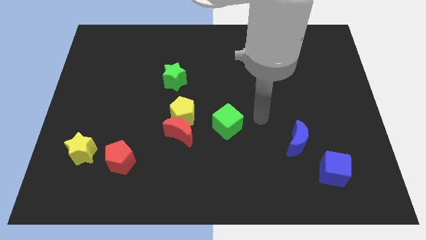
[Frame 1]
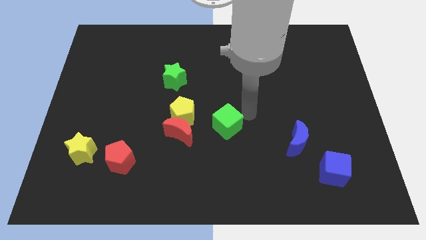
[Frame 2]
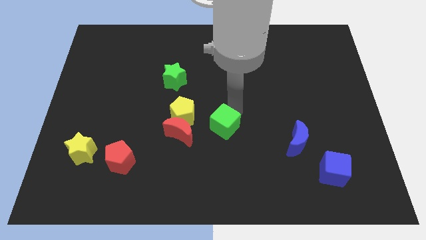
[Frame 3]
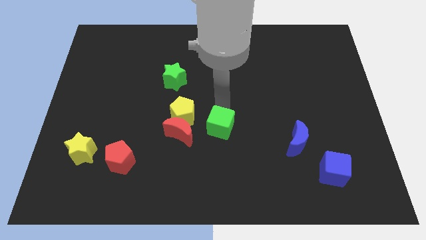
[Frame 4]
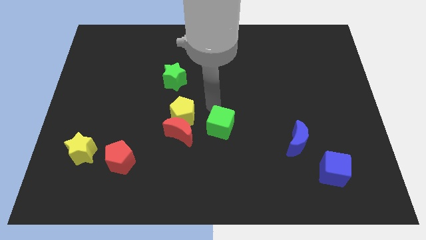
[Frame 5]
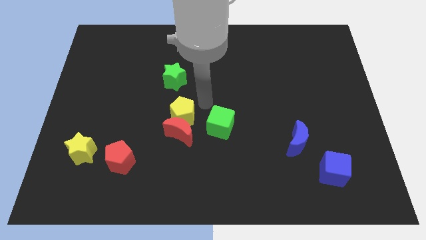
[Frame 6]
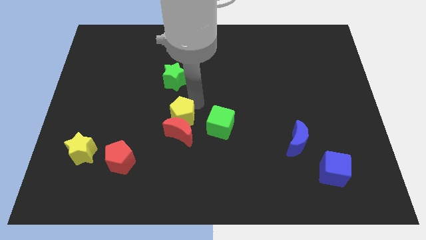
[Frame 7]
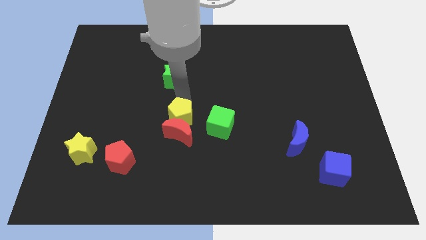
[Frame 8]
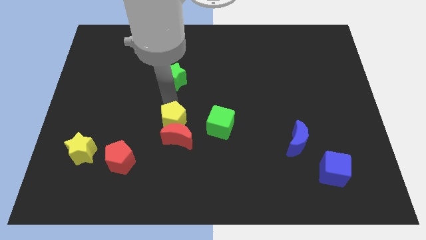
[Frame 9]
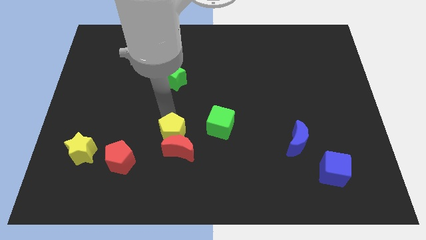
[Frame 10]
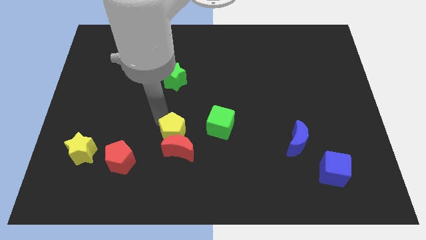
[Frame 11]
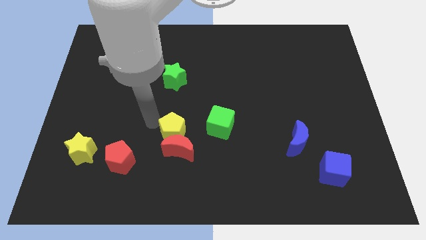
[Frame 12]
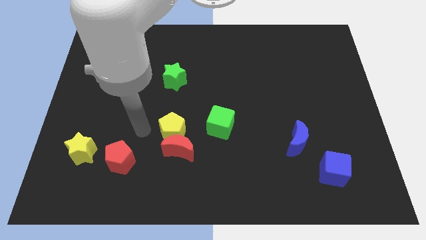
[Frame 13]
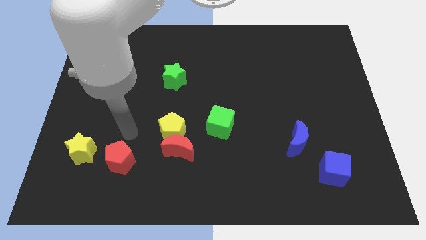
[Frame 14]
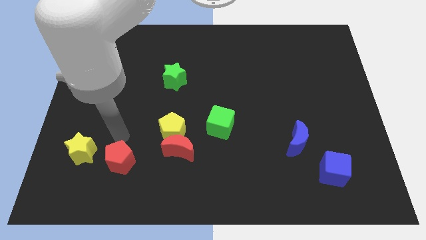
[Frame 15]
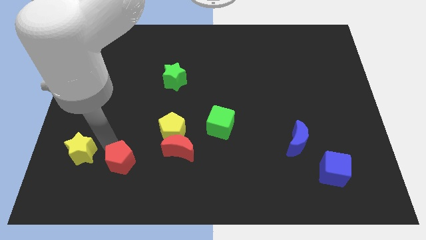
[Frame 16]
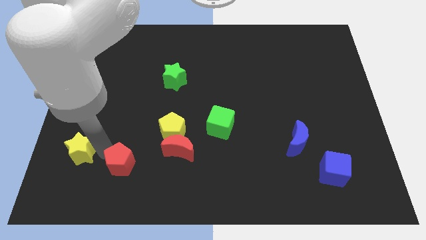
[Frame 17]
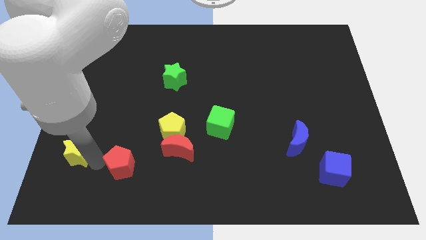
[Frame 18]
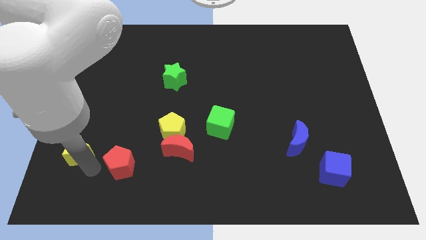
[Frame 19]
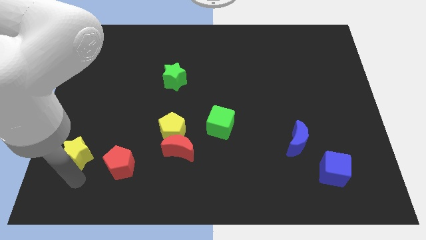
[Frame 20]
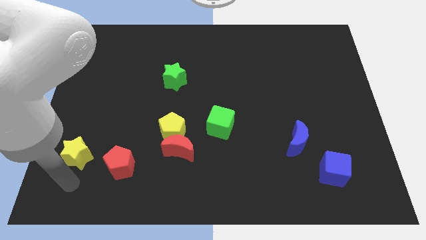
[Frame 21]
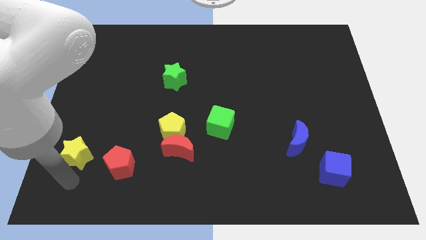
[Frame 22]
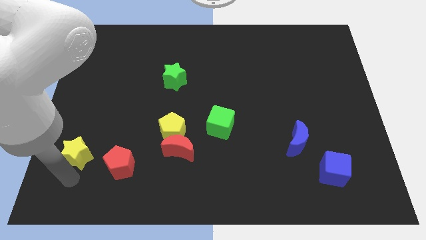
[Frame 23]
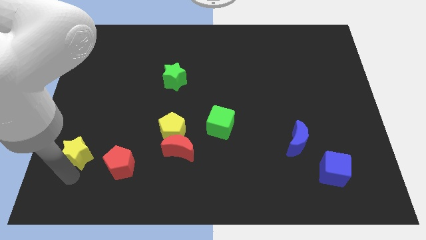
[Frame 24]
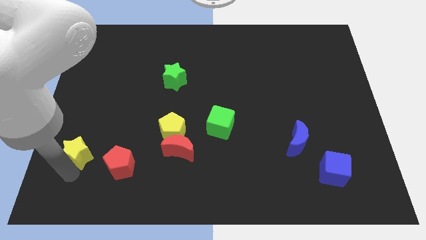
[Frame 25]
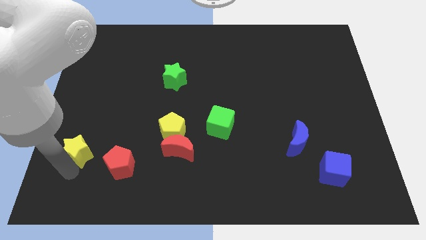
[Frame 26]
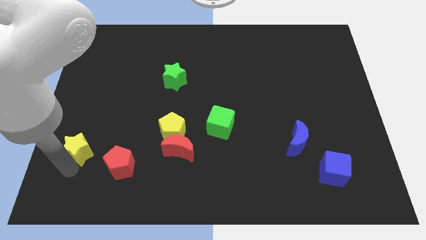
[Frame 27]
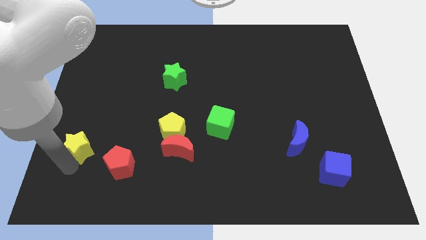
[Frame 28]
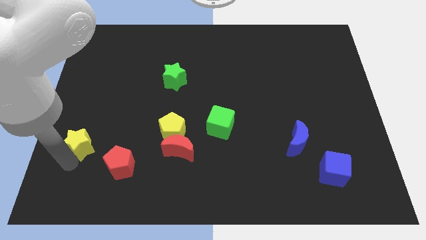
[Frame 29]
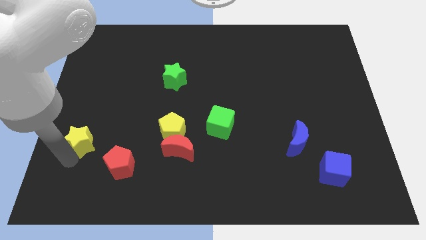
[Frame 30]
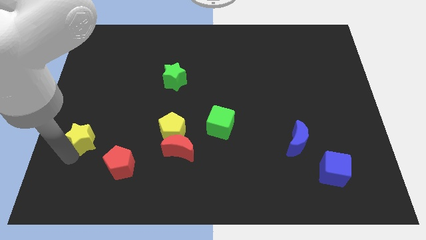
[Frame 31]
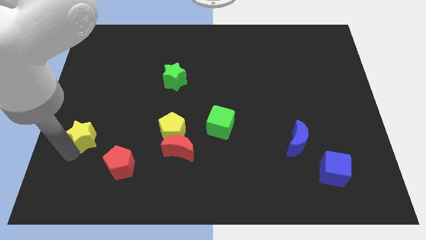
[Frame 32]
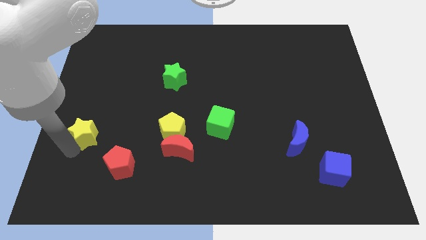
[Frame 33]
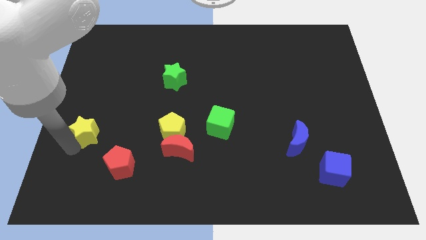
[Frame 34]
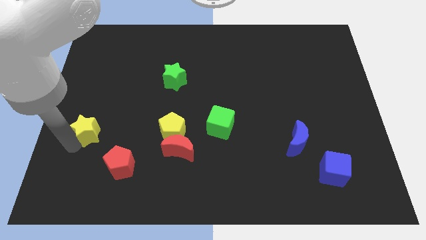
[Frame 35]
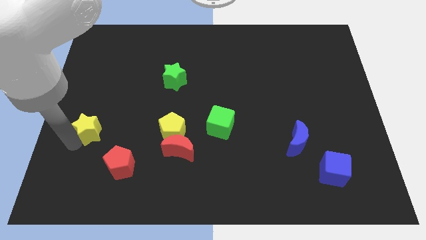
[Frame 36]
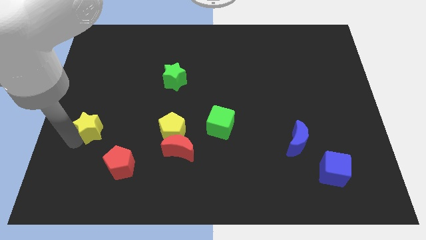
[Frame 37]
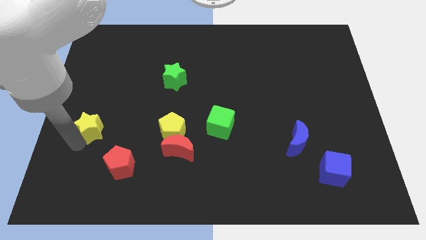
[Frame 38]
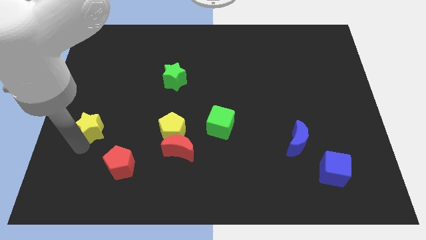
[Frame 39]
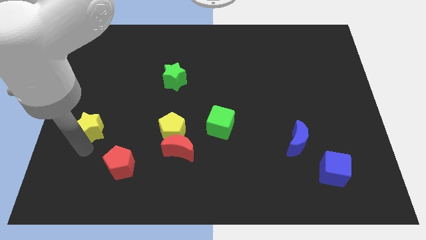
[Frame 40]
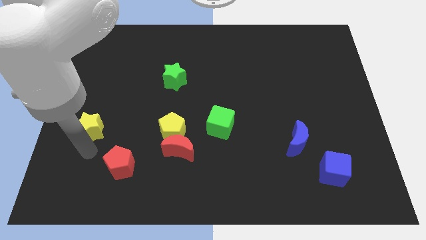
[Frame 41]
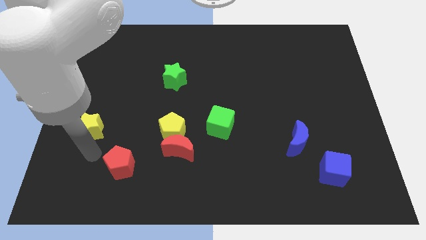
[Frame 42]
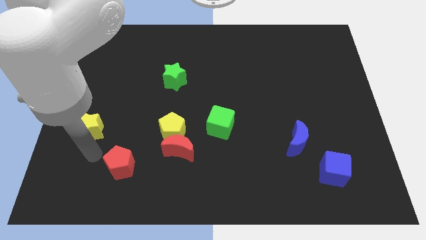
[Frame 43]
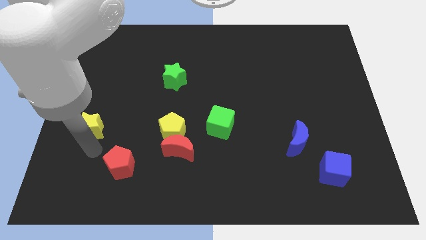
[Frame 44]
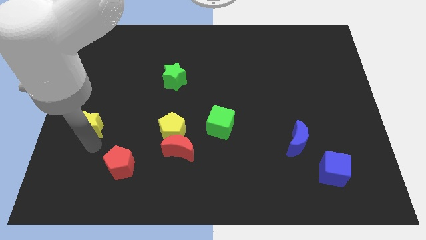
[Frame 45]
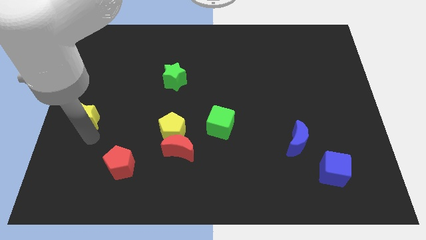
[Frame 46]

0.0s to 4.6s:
slide the yellow star up a little

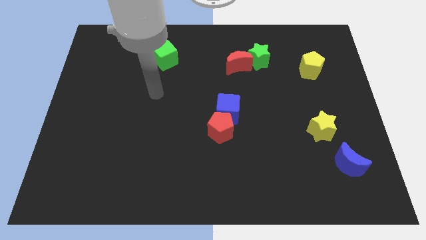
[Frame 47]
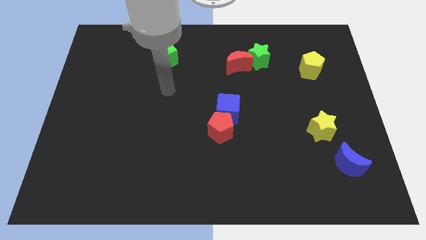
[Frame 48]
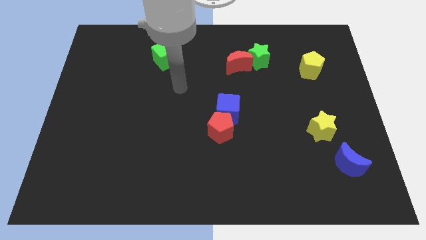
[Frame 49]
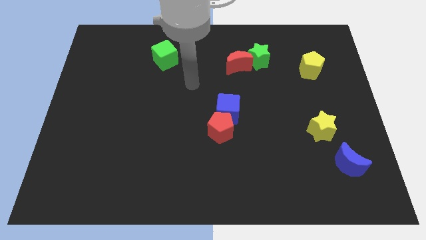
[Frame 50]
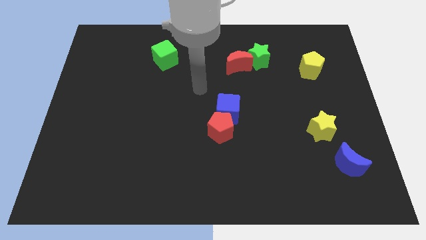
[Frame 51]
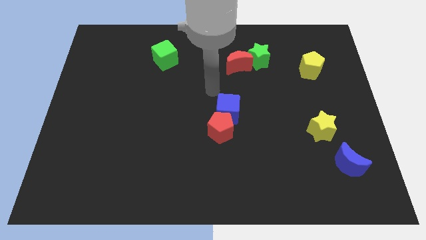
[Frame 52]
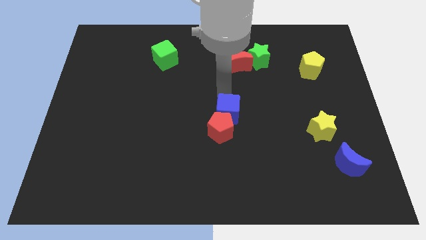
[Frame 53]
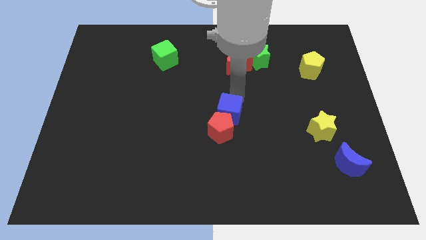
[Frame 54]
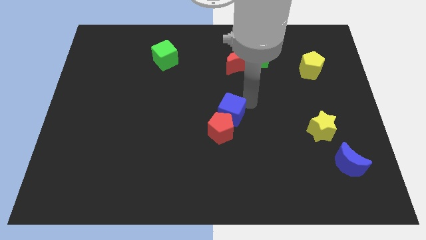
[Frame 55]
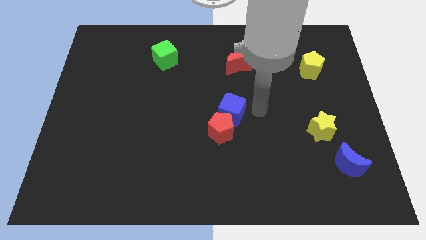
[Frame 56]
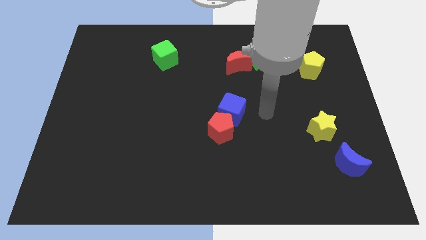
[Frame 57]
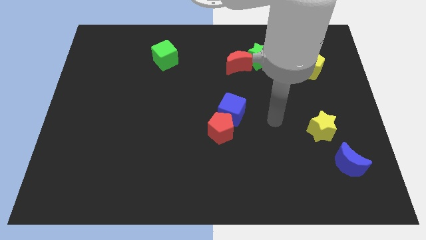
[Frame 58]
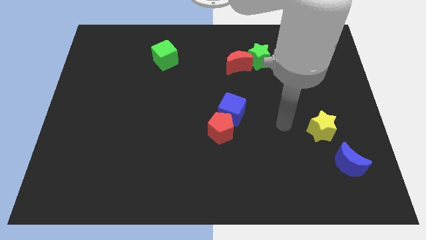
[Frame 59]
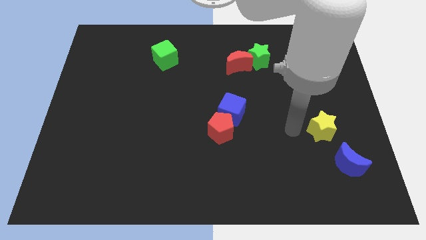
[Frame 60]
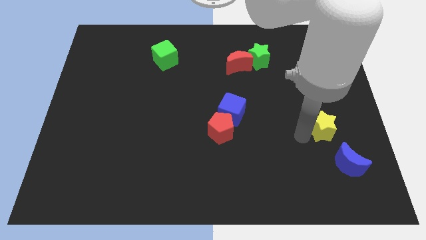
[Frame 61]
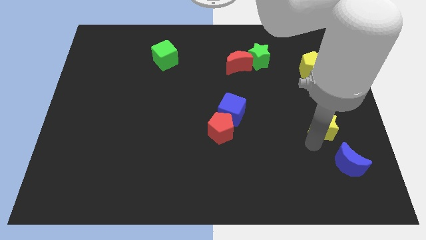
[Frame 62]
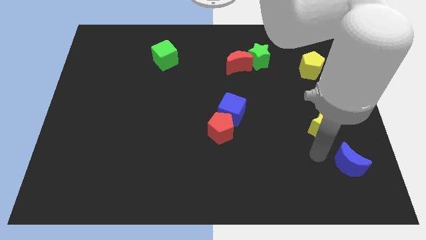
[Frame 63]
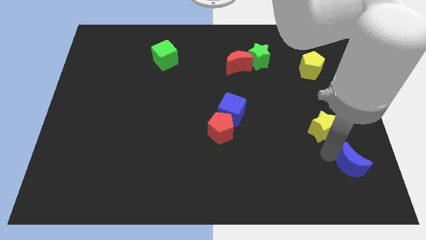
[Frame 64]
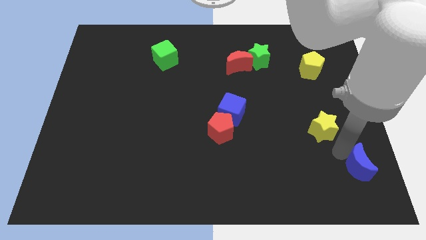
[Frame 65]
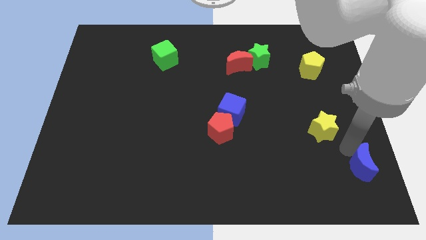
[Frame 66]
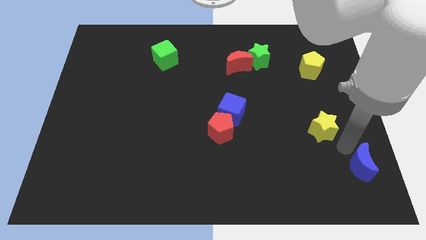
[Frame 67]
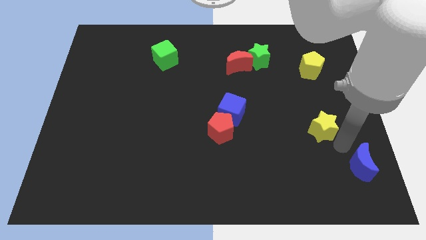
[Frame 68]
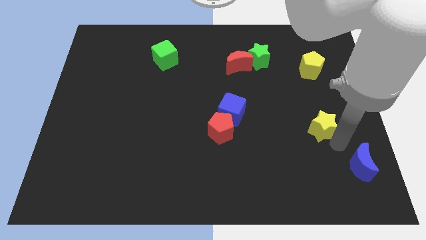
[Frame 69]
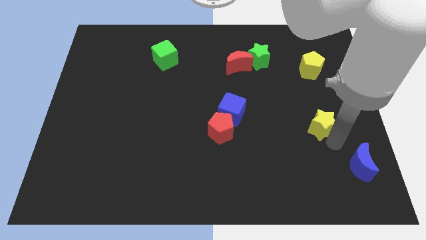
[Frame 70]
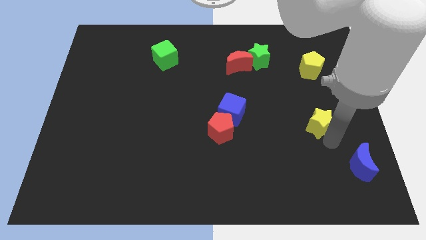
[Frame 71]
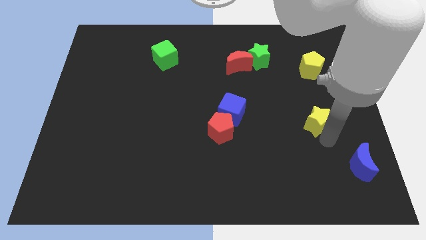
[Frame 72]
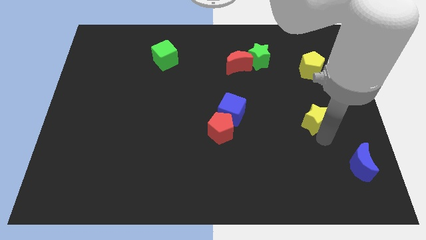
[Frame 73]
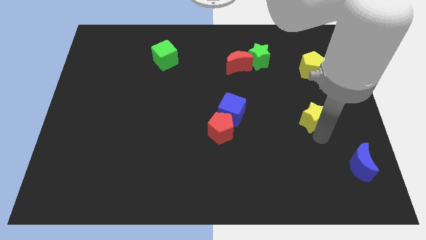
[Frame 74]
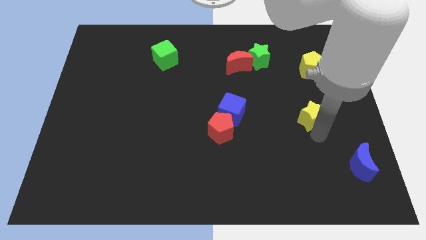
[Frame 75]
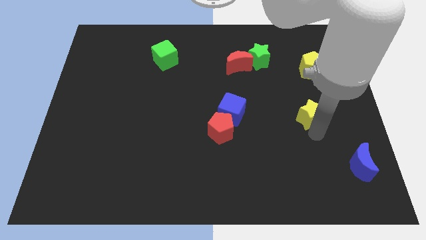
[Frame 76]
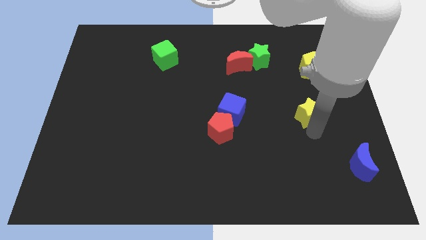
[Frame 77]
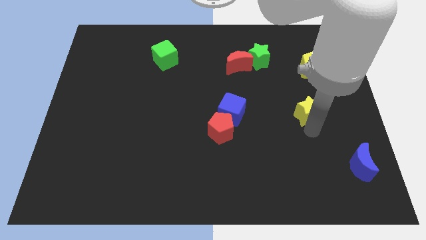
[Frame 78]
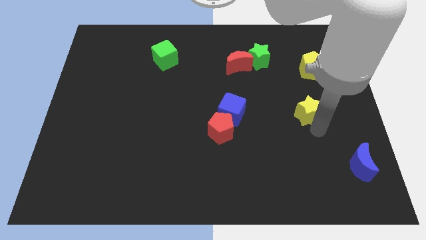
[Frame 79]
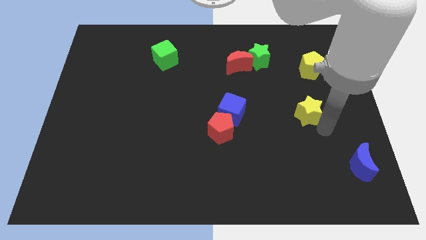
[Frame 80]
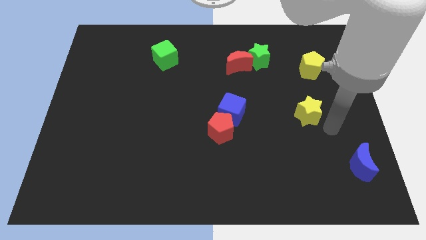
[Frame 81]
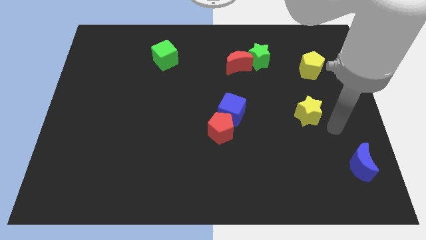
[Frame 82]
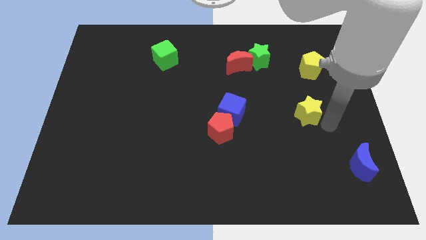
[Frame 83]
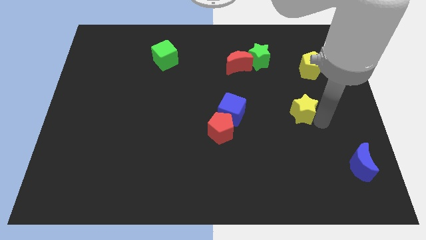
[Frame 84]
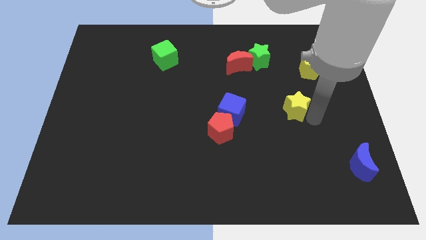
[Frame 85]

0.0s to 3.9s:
slide the yellow star diagonally up and left a bit
